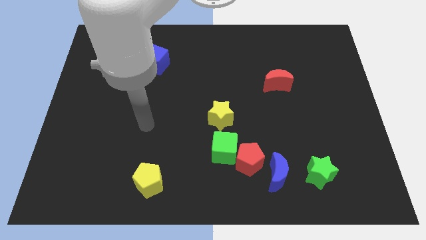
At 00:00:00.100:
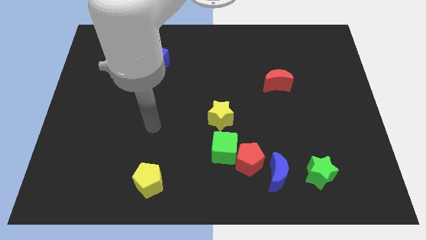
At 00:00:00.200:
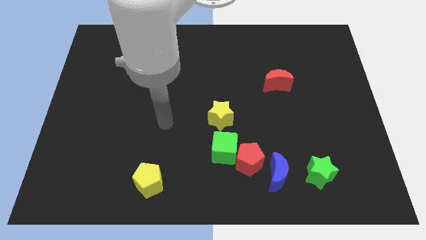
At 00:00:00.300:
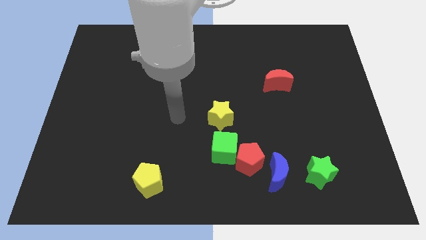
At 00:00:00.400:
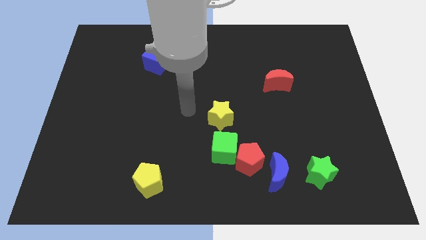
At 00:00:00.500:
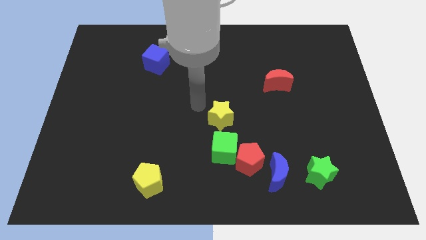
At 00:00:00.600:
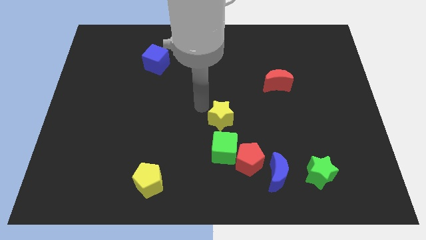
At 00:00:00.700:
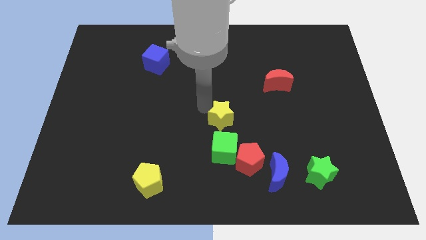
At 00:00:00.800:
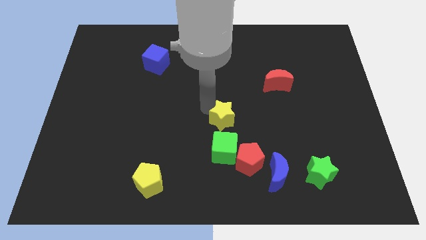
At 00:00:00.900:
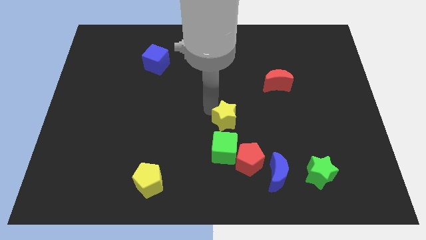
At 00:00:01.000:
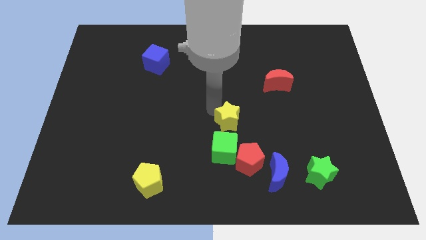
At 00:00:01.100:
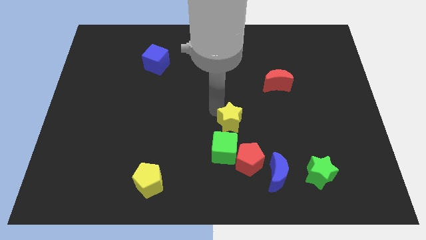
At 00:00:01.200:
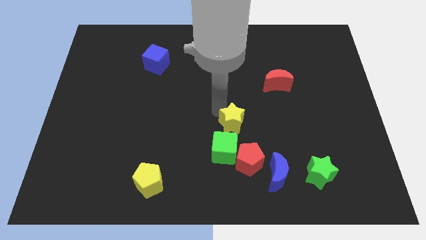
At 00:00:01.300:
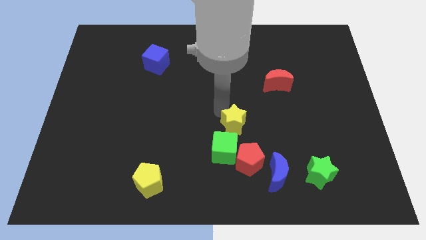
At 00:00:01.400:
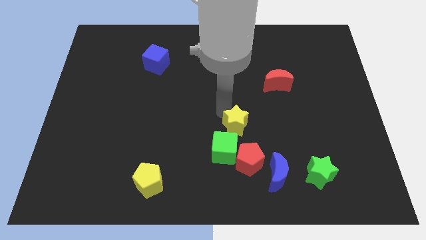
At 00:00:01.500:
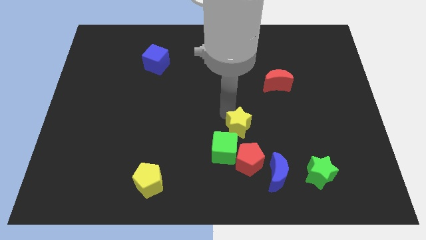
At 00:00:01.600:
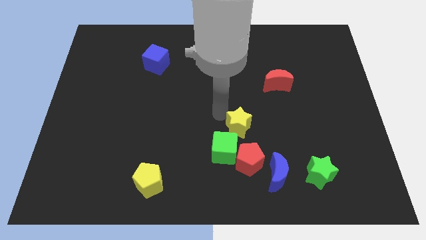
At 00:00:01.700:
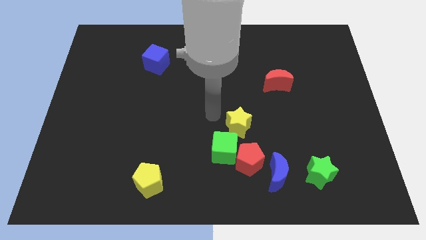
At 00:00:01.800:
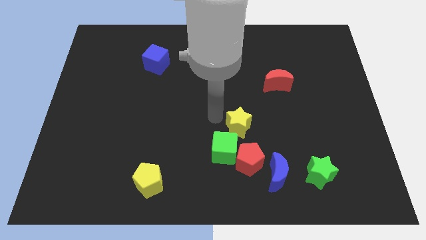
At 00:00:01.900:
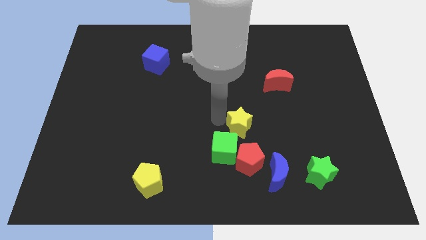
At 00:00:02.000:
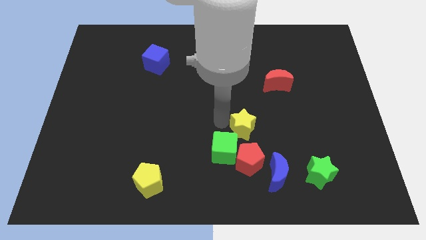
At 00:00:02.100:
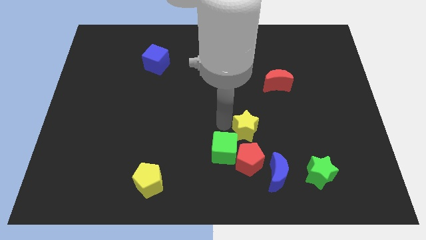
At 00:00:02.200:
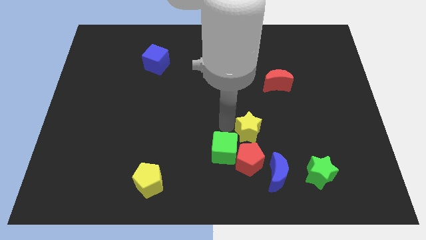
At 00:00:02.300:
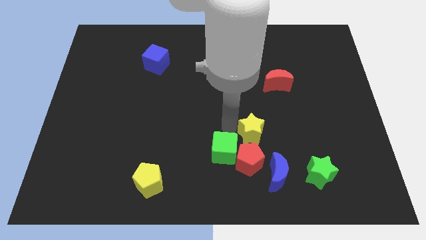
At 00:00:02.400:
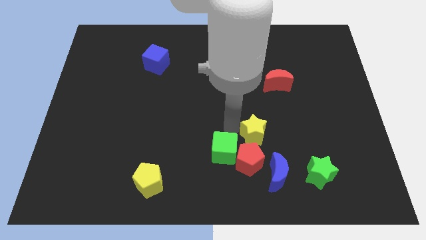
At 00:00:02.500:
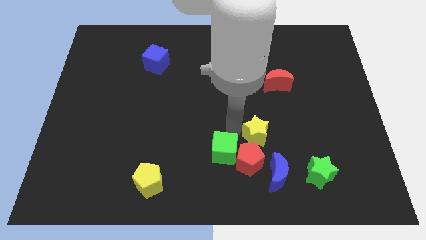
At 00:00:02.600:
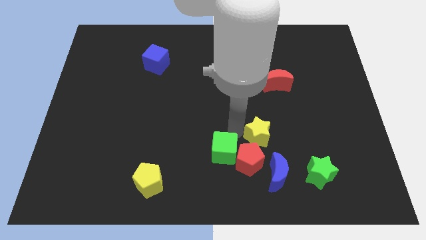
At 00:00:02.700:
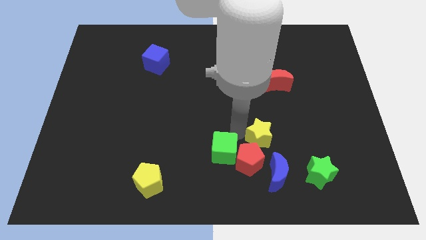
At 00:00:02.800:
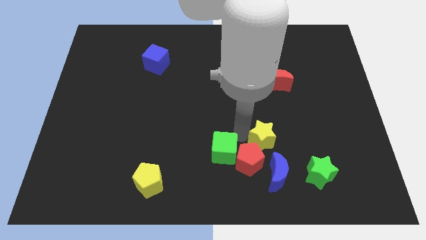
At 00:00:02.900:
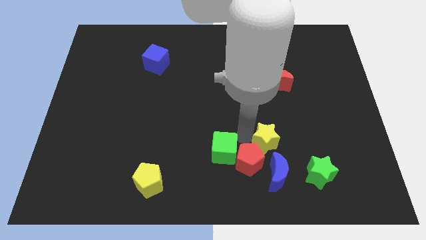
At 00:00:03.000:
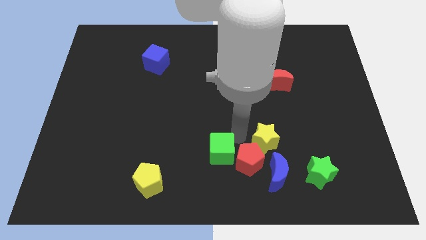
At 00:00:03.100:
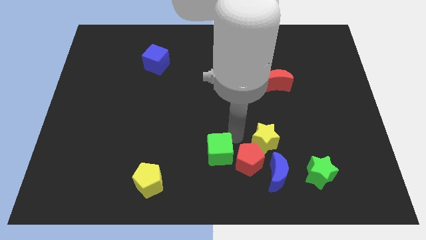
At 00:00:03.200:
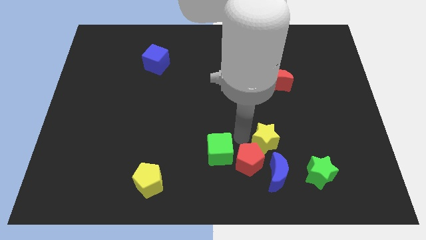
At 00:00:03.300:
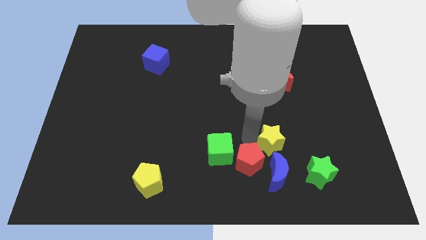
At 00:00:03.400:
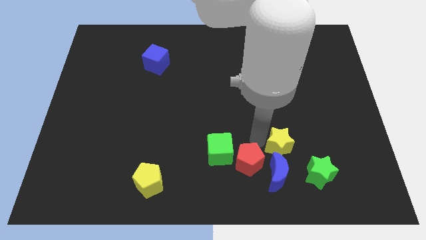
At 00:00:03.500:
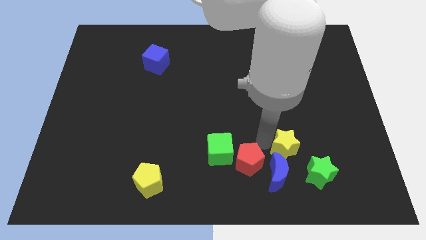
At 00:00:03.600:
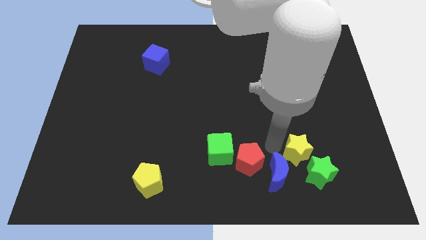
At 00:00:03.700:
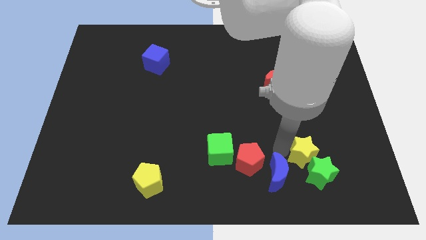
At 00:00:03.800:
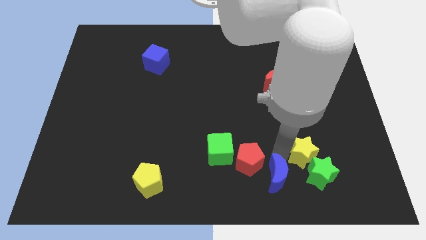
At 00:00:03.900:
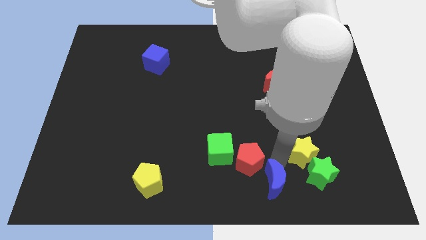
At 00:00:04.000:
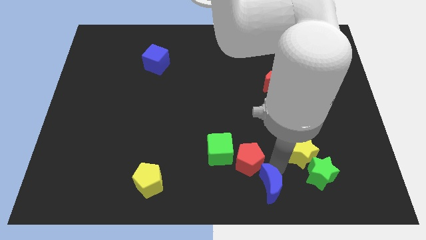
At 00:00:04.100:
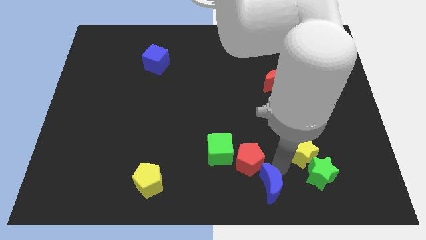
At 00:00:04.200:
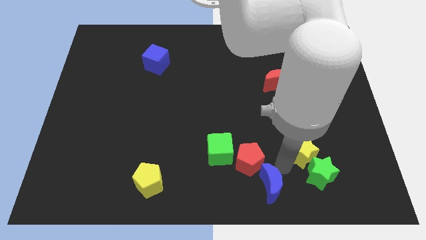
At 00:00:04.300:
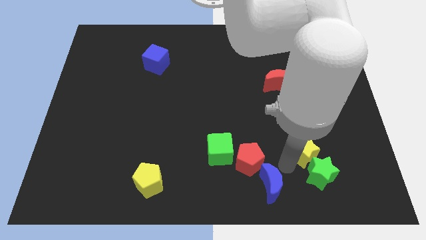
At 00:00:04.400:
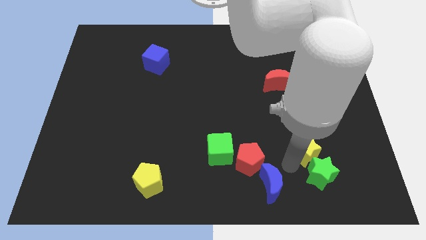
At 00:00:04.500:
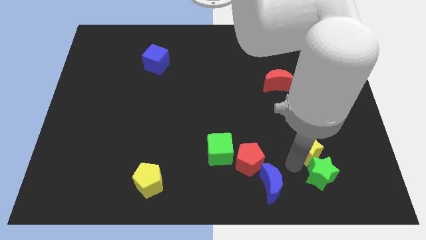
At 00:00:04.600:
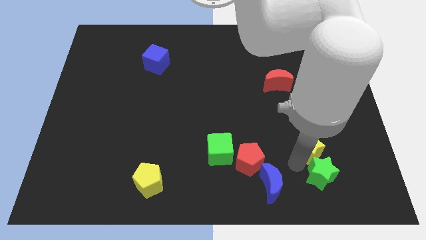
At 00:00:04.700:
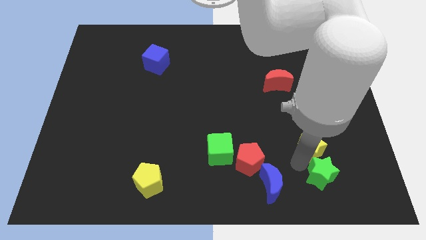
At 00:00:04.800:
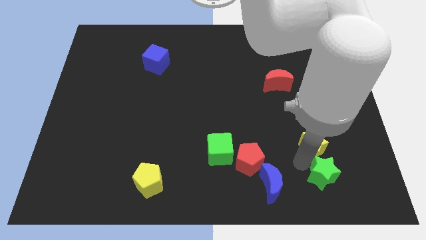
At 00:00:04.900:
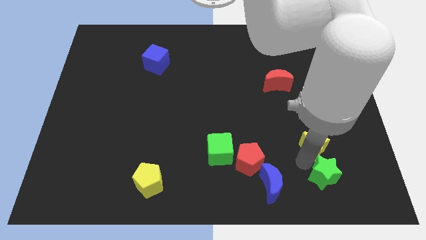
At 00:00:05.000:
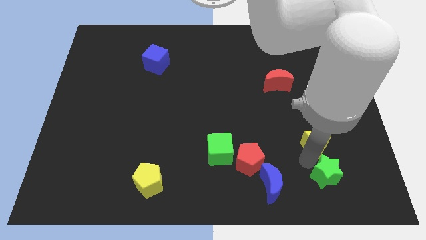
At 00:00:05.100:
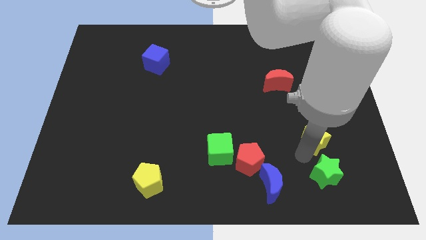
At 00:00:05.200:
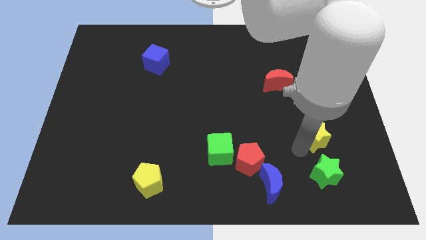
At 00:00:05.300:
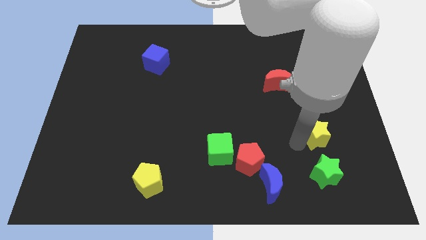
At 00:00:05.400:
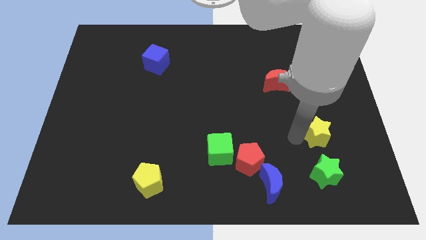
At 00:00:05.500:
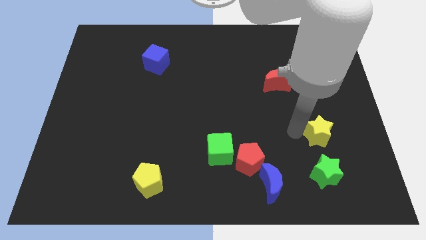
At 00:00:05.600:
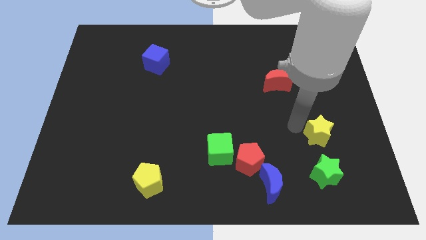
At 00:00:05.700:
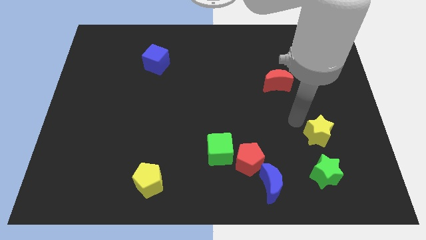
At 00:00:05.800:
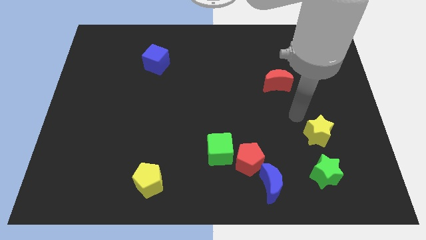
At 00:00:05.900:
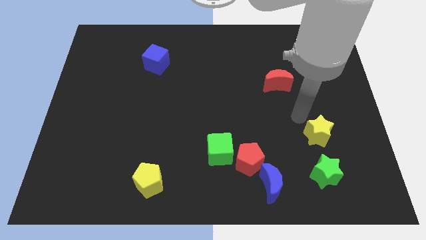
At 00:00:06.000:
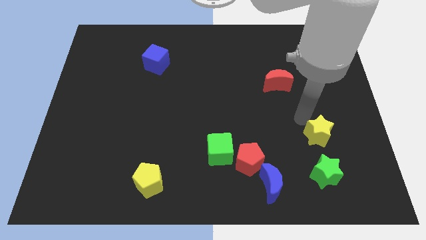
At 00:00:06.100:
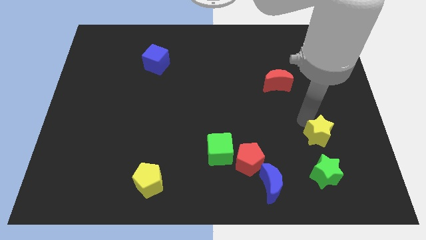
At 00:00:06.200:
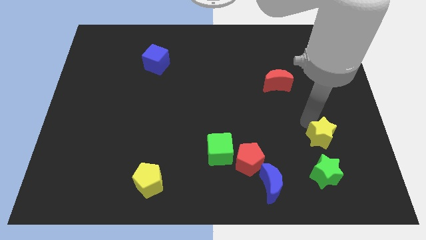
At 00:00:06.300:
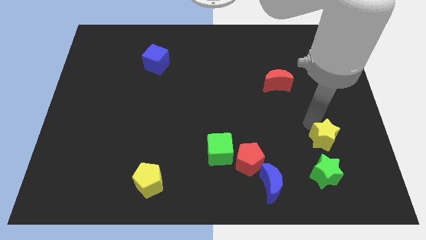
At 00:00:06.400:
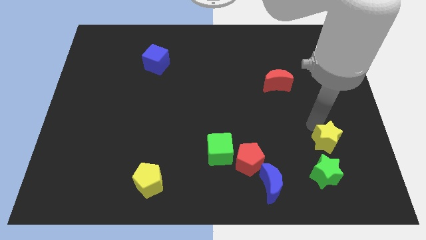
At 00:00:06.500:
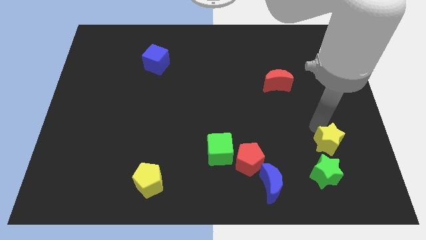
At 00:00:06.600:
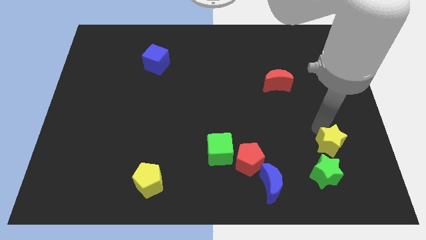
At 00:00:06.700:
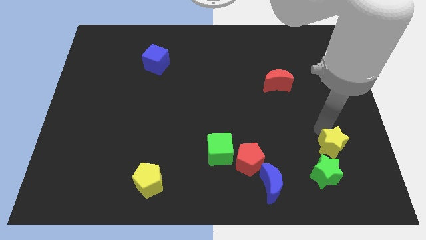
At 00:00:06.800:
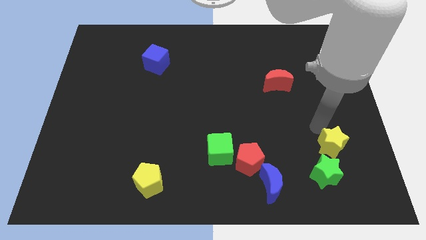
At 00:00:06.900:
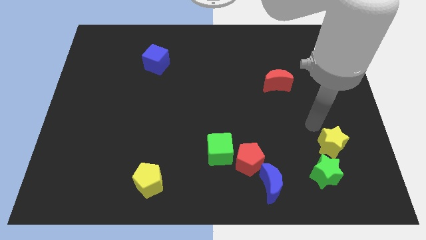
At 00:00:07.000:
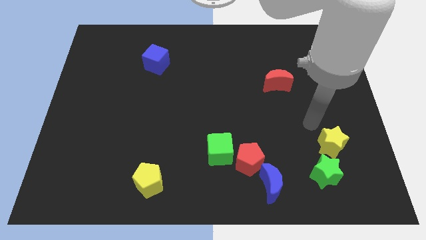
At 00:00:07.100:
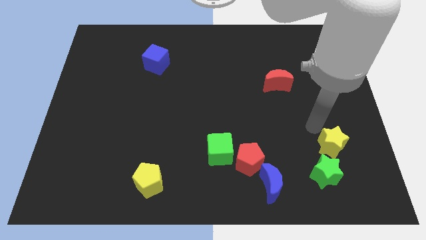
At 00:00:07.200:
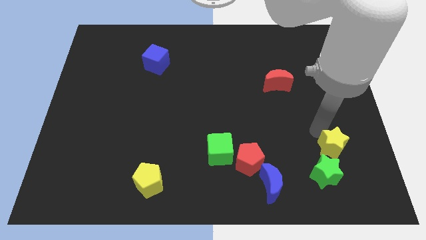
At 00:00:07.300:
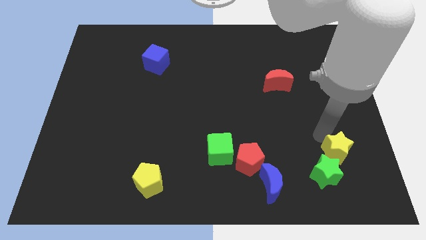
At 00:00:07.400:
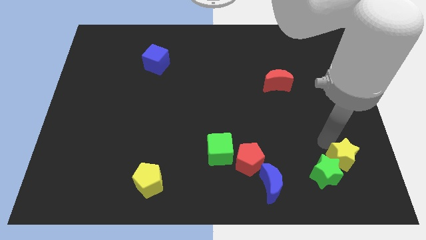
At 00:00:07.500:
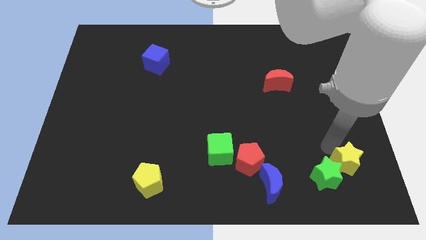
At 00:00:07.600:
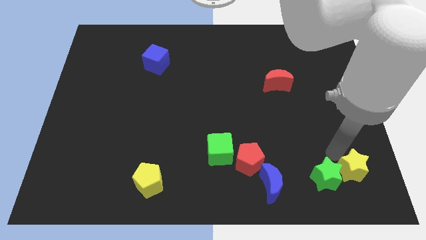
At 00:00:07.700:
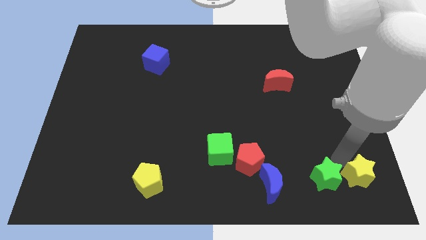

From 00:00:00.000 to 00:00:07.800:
slide the yellow star to the bottom right
